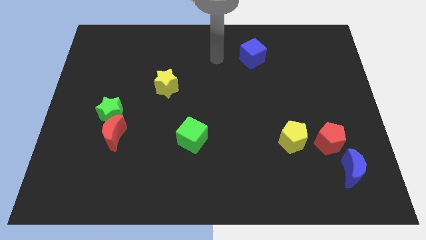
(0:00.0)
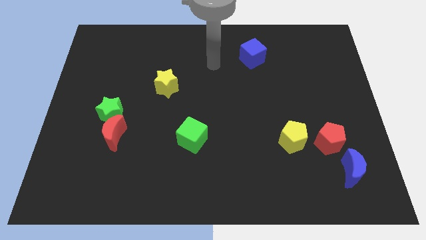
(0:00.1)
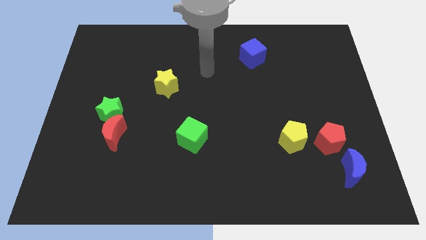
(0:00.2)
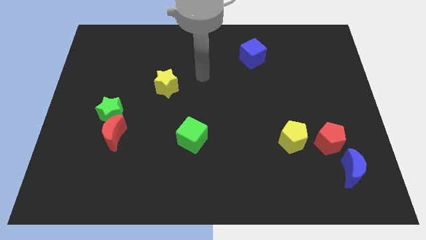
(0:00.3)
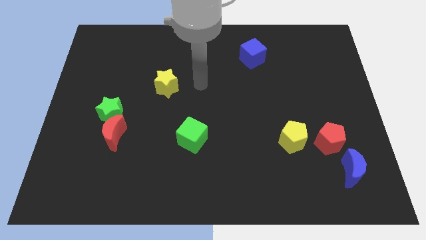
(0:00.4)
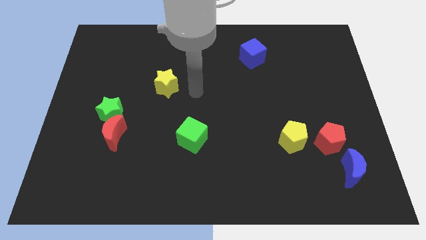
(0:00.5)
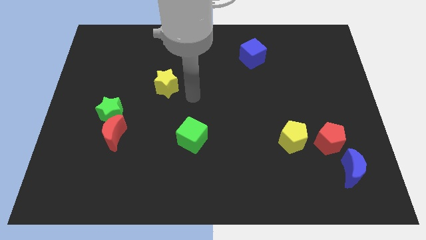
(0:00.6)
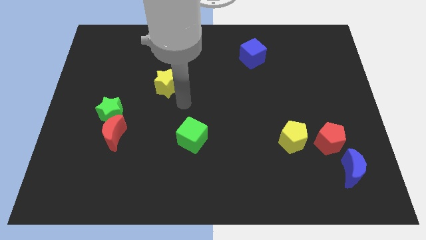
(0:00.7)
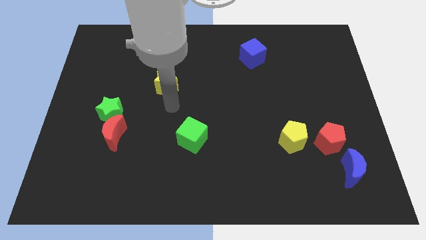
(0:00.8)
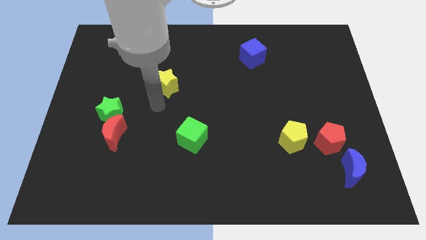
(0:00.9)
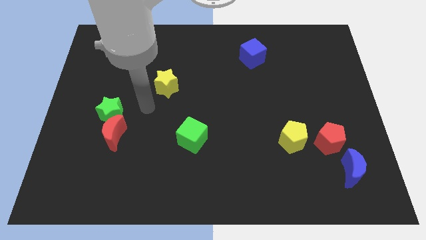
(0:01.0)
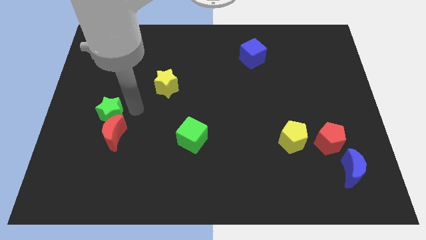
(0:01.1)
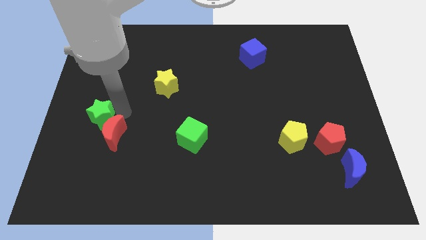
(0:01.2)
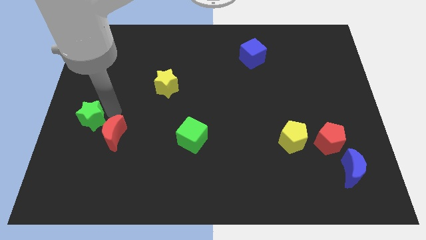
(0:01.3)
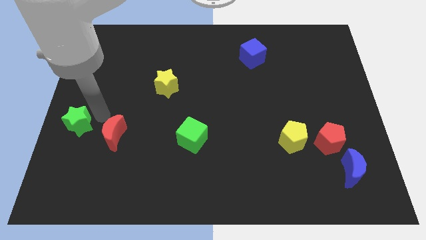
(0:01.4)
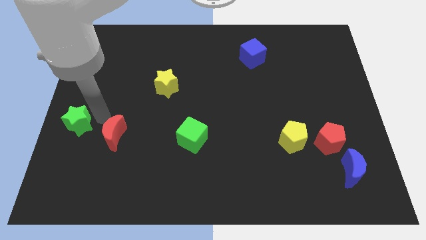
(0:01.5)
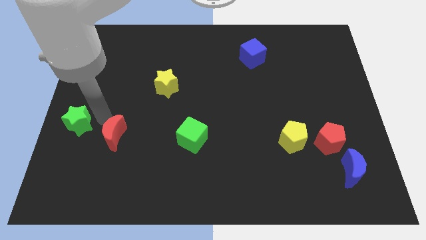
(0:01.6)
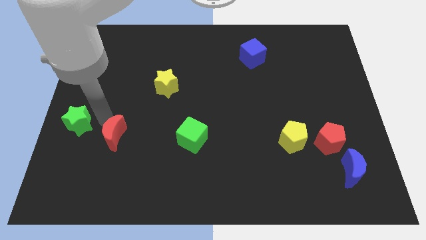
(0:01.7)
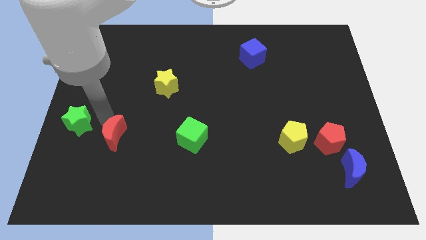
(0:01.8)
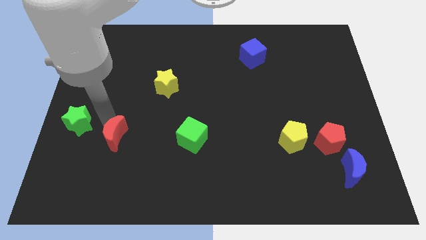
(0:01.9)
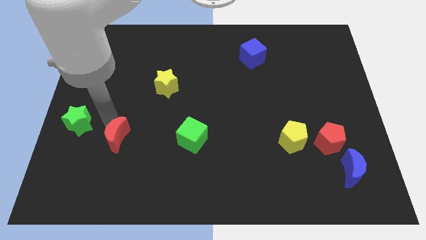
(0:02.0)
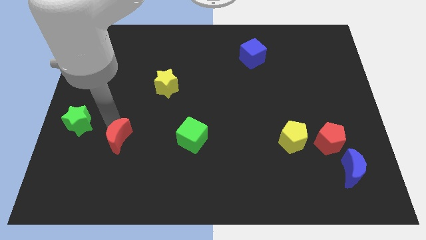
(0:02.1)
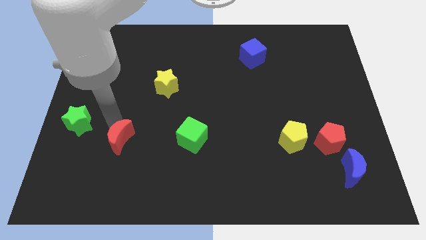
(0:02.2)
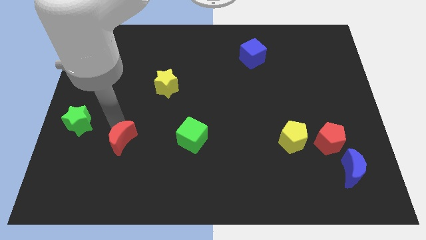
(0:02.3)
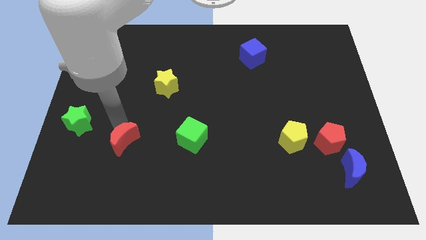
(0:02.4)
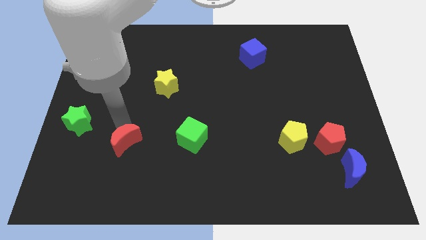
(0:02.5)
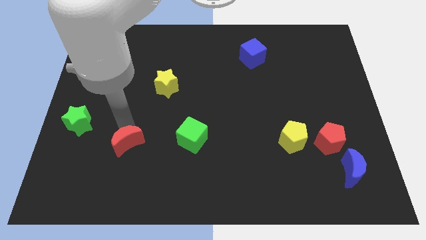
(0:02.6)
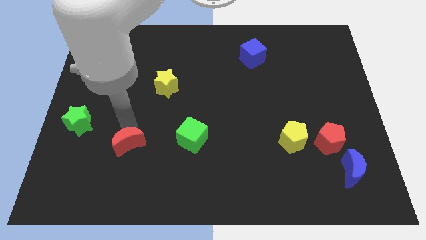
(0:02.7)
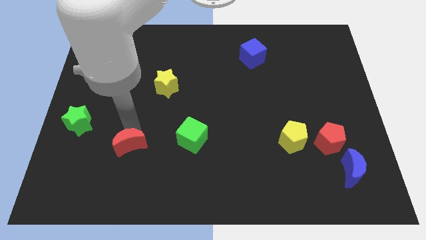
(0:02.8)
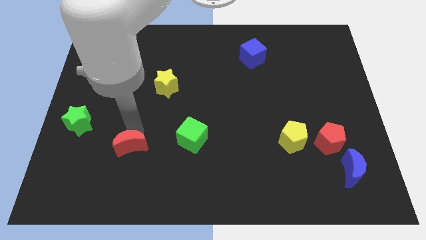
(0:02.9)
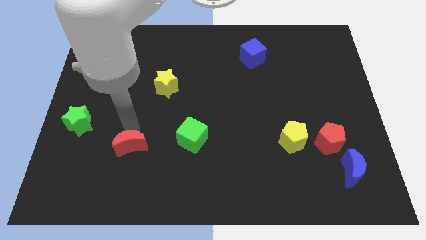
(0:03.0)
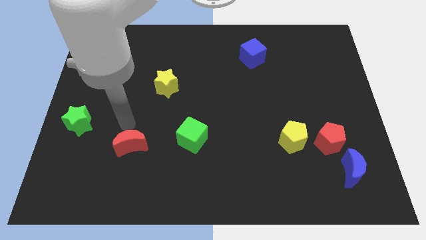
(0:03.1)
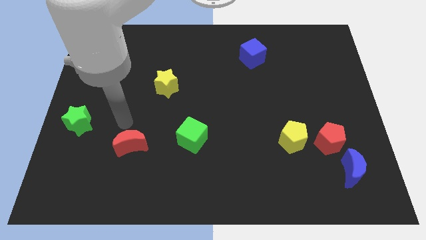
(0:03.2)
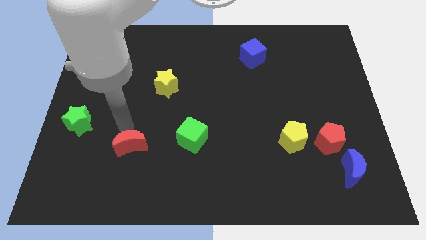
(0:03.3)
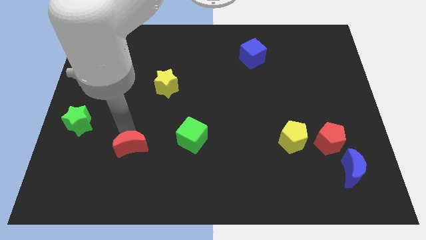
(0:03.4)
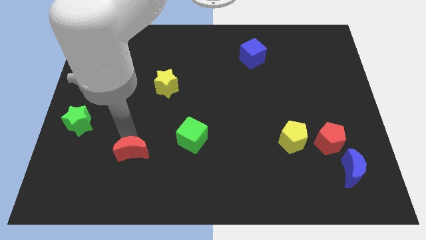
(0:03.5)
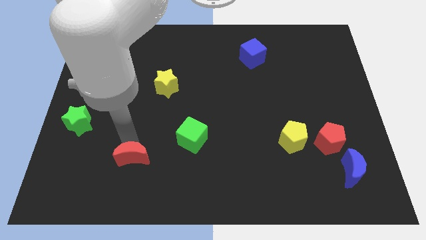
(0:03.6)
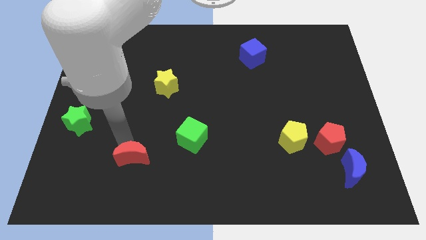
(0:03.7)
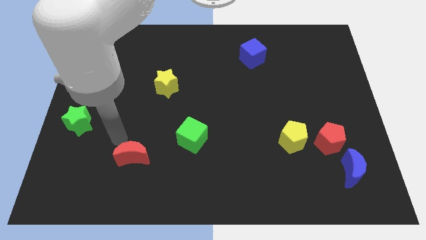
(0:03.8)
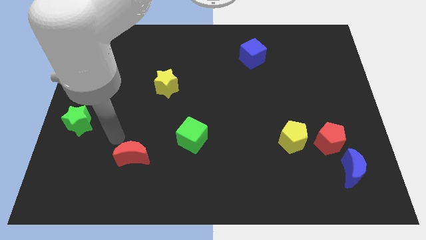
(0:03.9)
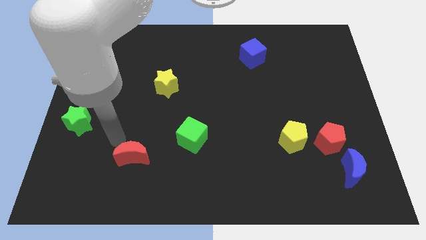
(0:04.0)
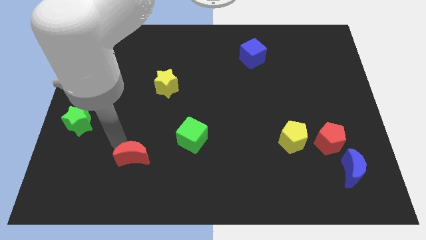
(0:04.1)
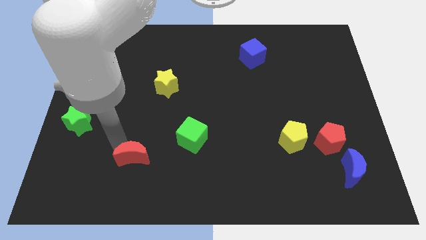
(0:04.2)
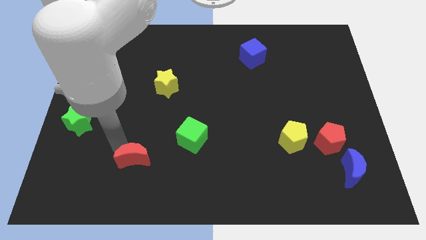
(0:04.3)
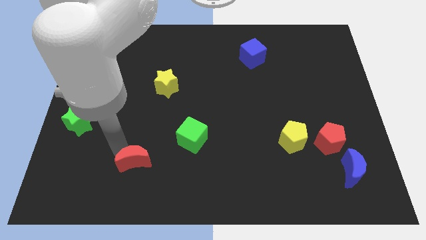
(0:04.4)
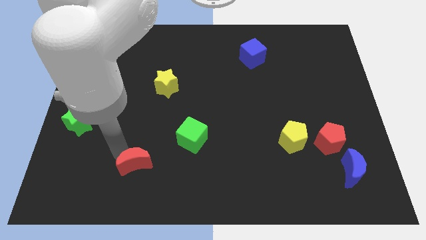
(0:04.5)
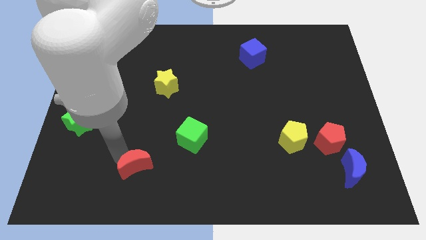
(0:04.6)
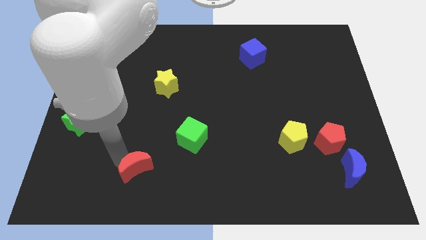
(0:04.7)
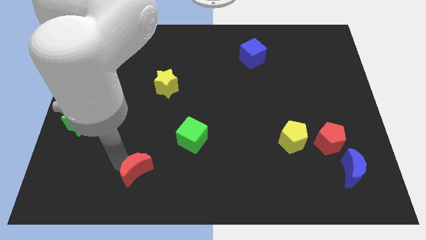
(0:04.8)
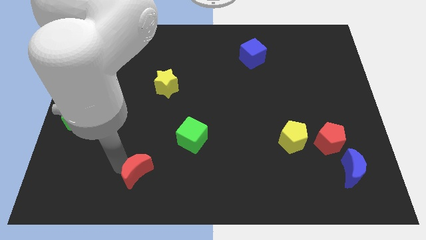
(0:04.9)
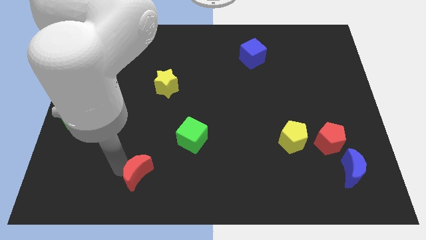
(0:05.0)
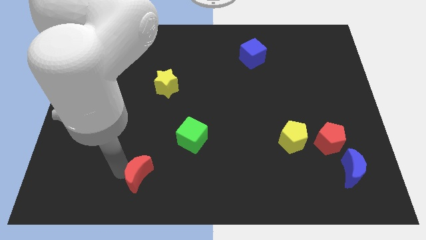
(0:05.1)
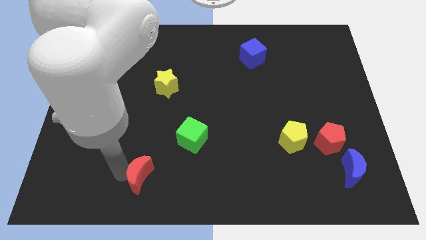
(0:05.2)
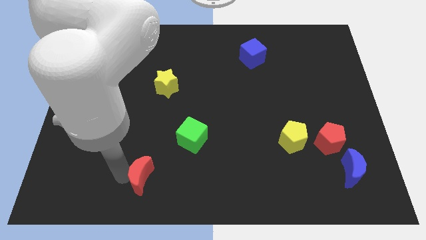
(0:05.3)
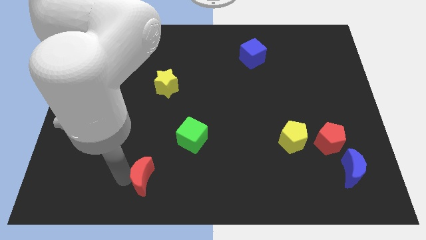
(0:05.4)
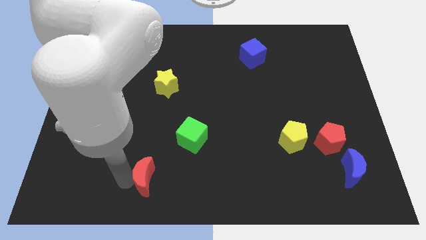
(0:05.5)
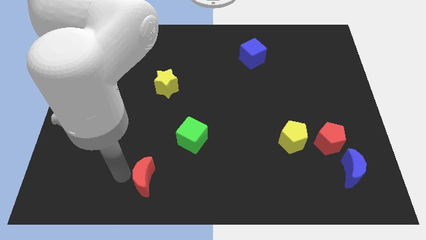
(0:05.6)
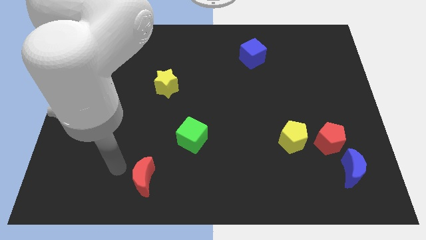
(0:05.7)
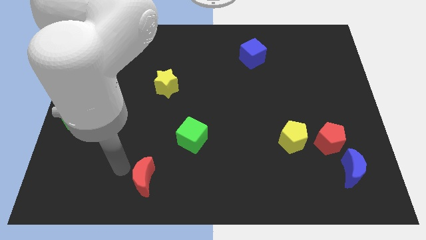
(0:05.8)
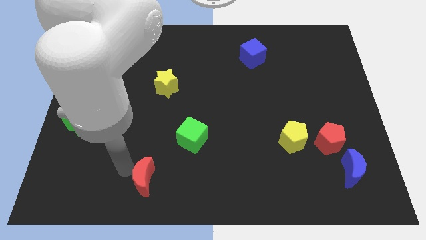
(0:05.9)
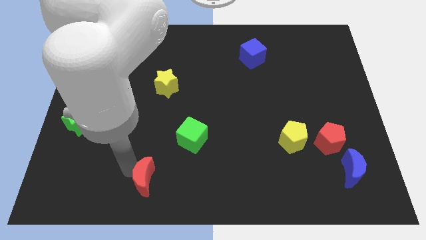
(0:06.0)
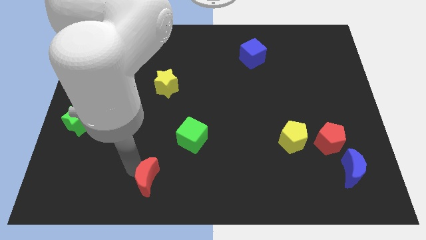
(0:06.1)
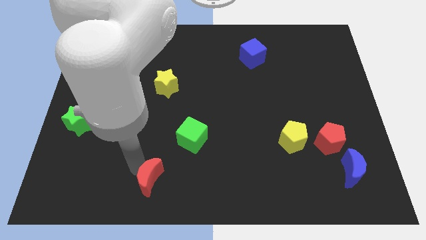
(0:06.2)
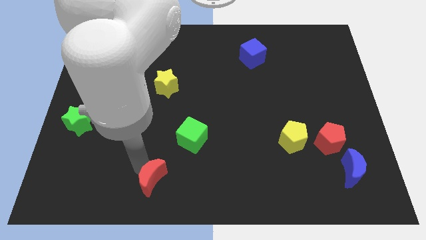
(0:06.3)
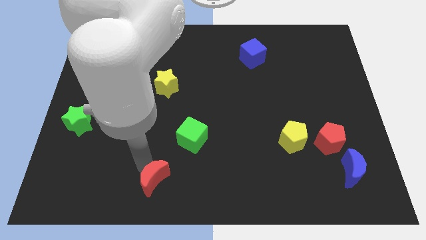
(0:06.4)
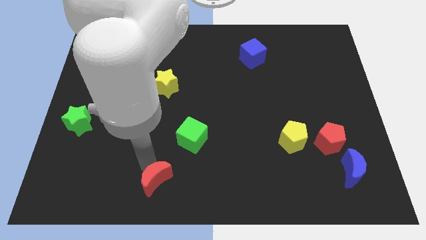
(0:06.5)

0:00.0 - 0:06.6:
put the red moon to the bottom side

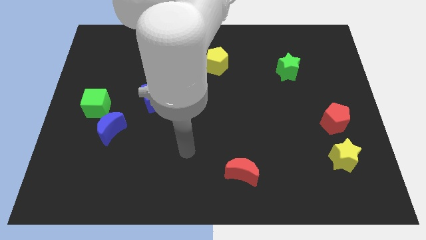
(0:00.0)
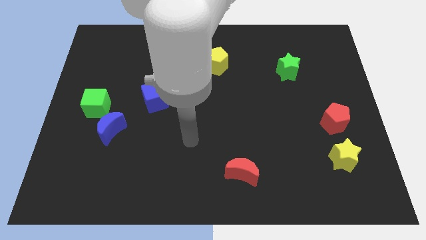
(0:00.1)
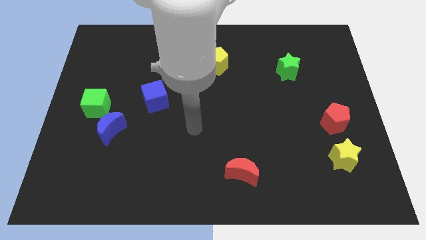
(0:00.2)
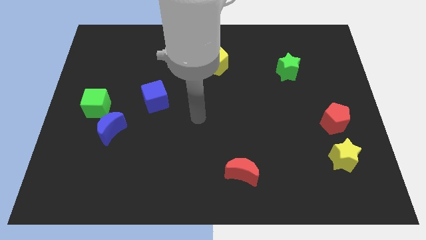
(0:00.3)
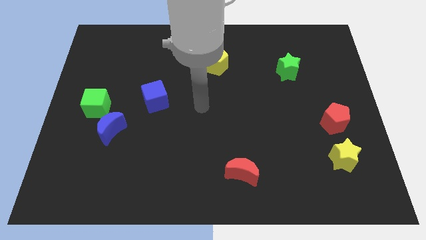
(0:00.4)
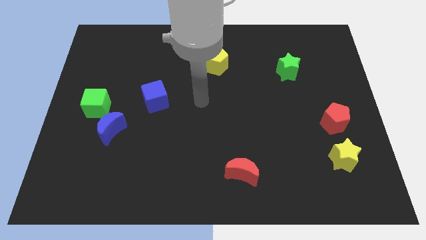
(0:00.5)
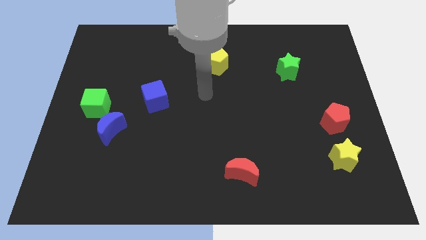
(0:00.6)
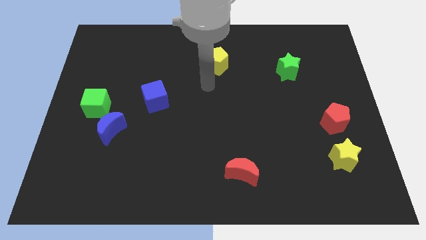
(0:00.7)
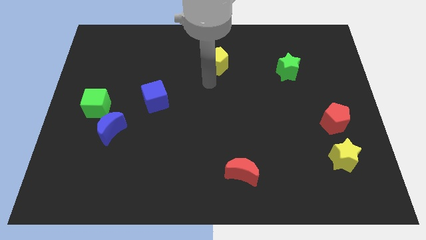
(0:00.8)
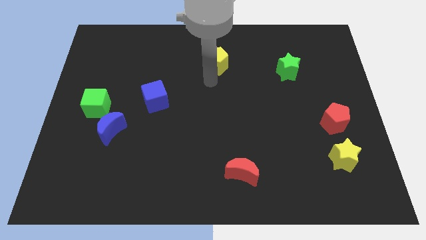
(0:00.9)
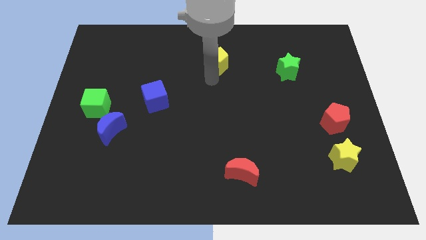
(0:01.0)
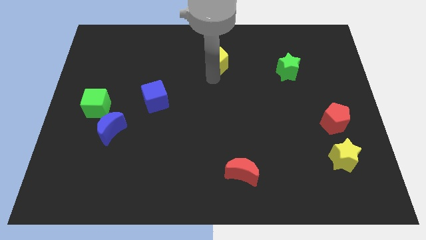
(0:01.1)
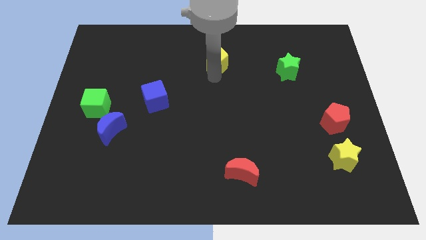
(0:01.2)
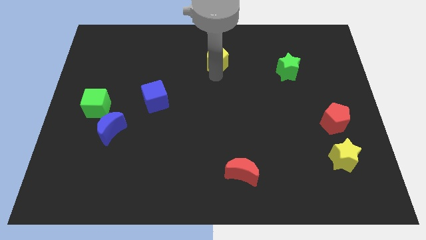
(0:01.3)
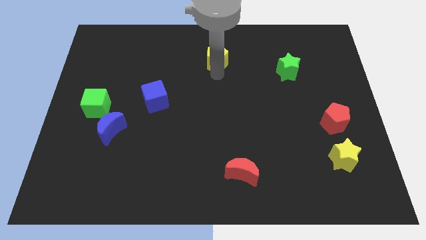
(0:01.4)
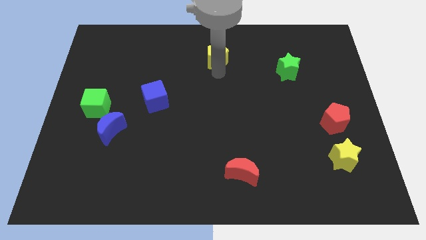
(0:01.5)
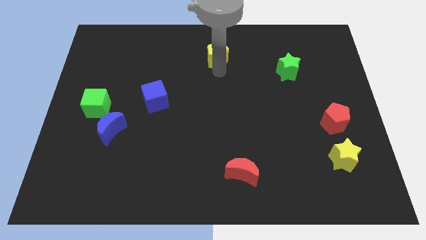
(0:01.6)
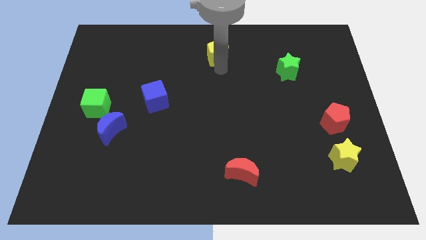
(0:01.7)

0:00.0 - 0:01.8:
put the yellow pentagon to the top side
